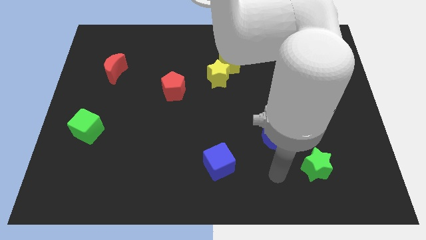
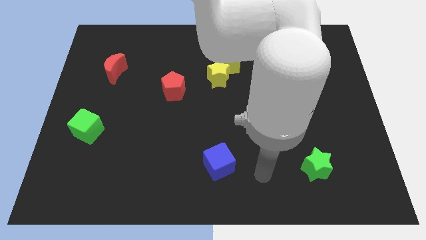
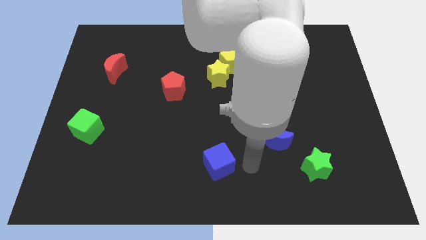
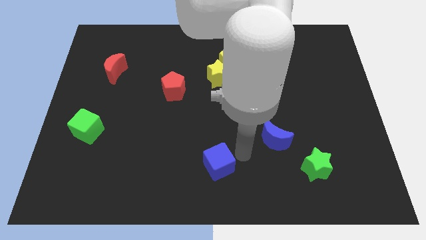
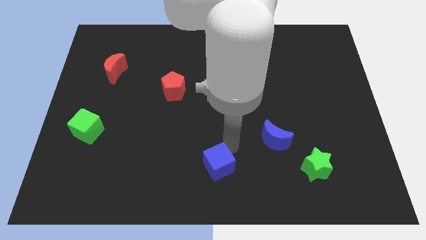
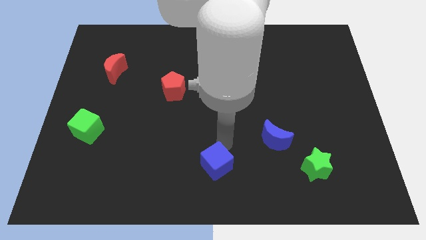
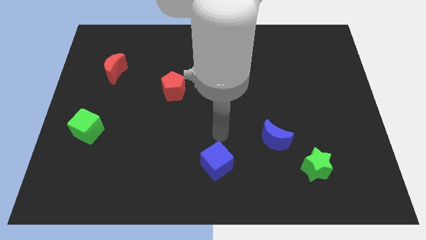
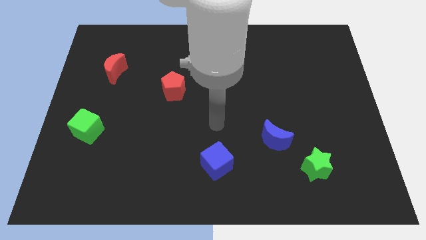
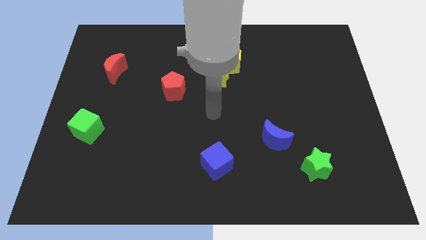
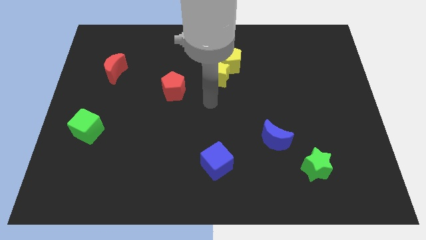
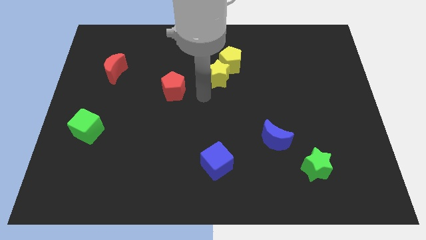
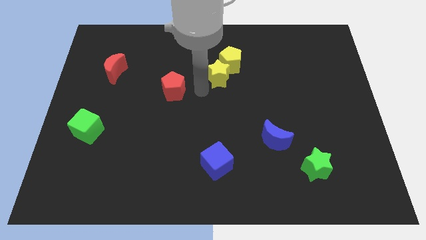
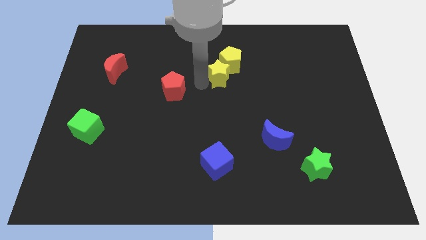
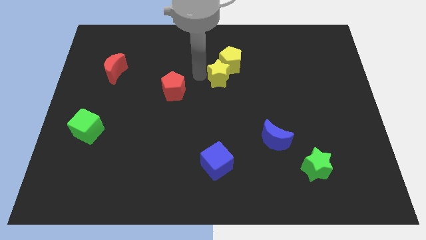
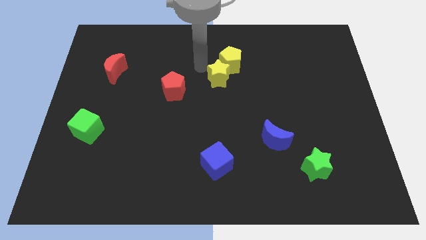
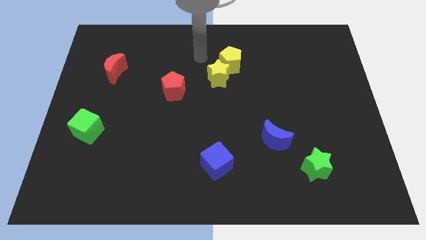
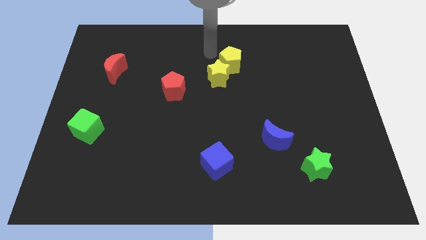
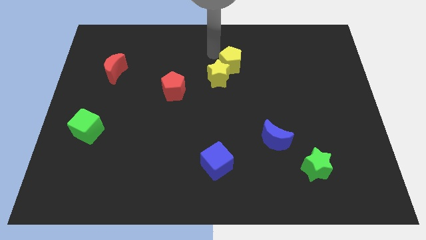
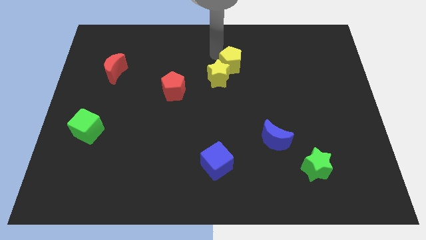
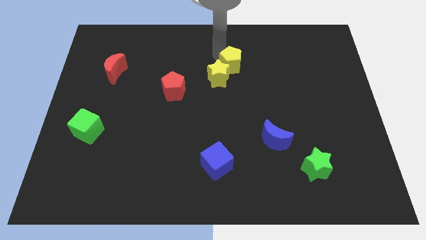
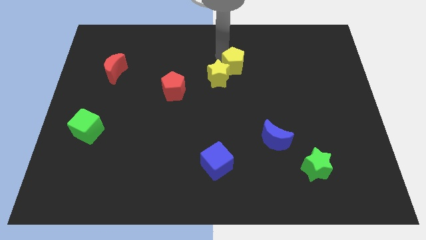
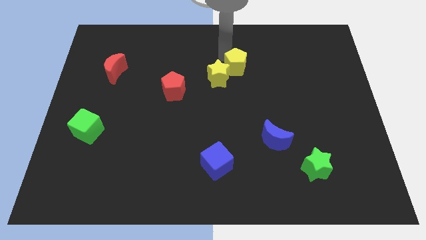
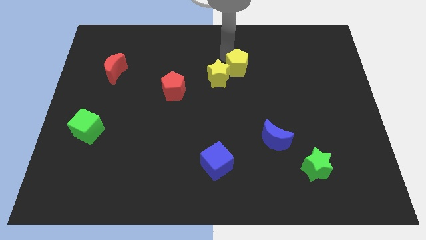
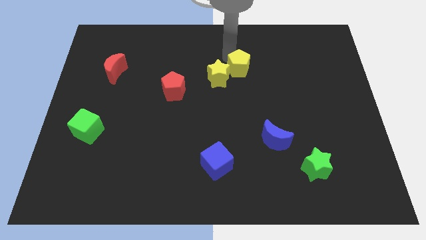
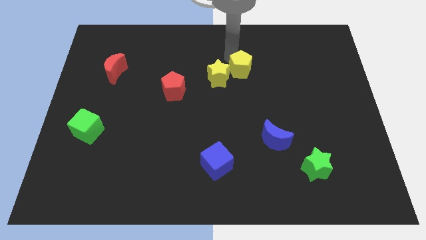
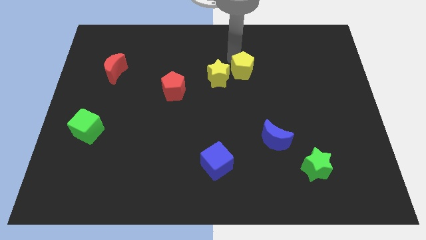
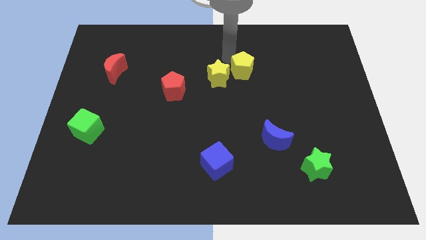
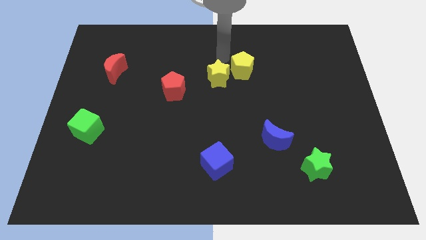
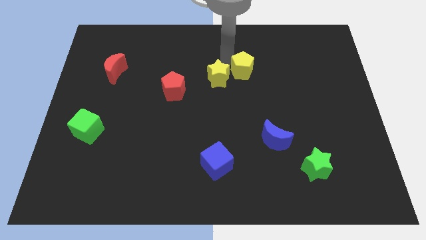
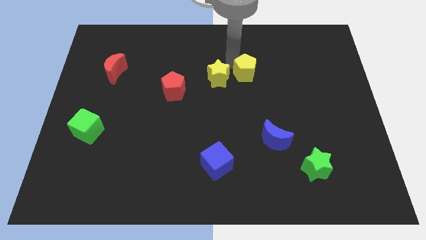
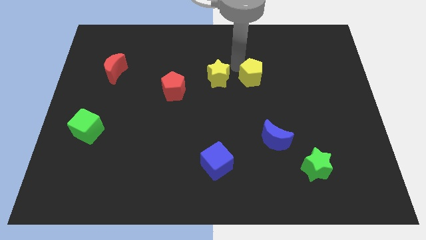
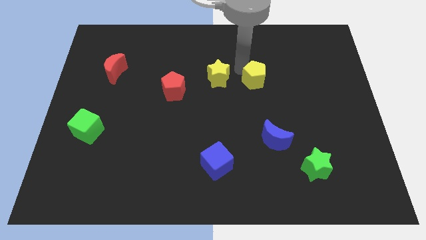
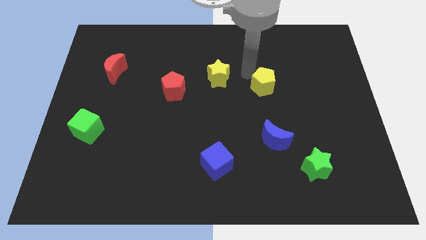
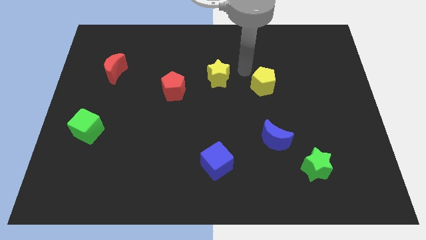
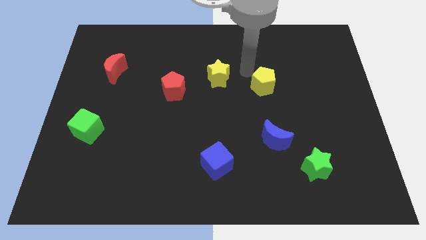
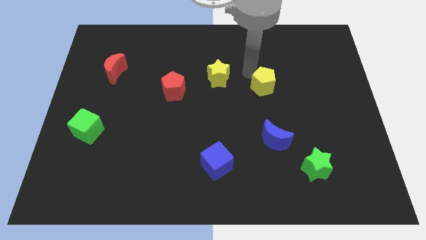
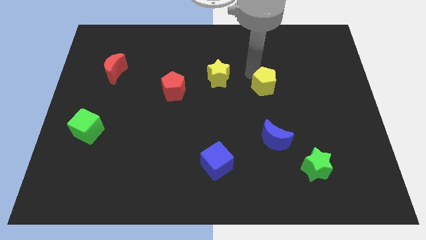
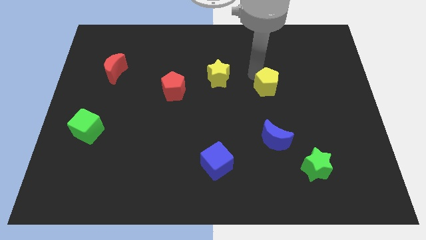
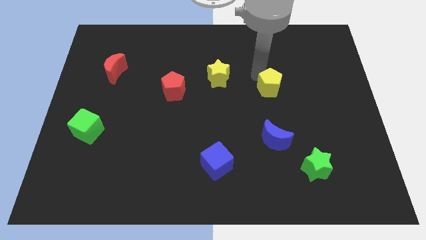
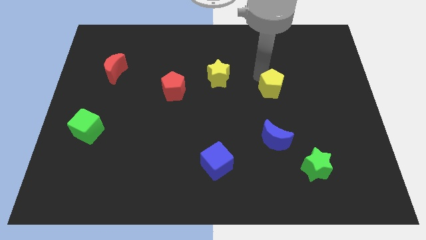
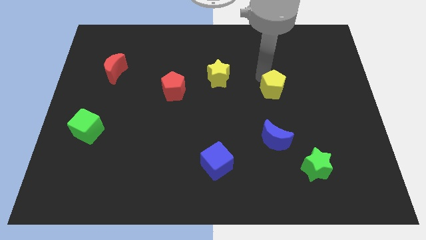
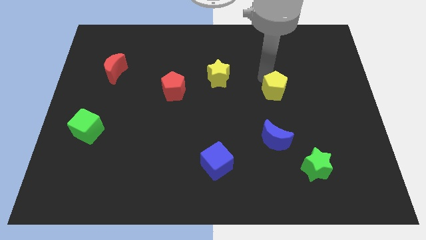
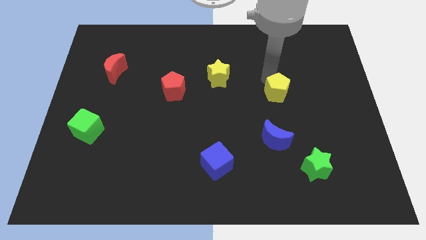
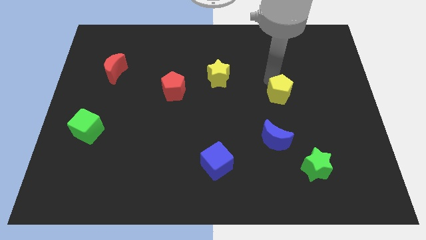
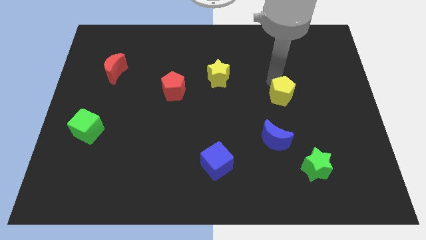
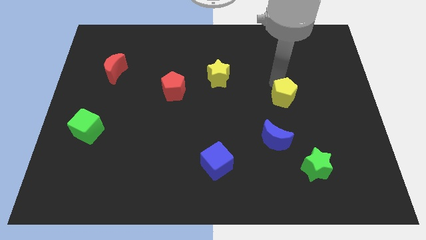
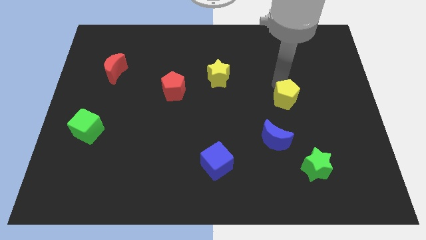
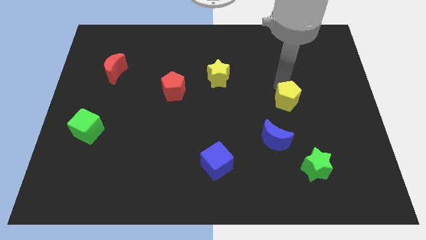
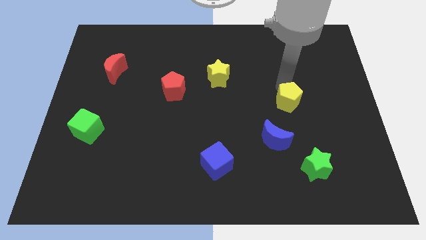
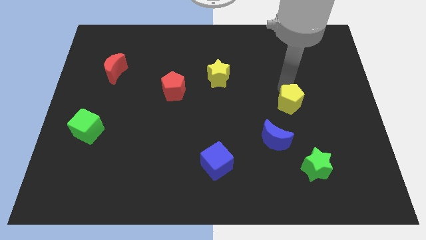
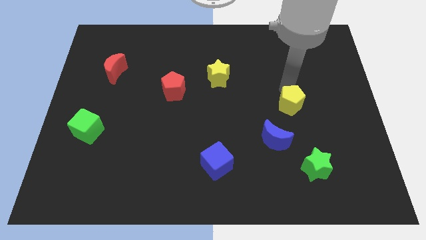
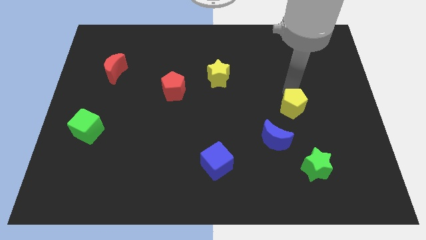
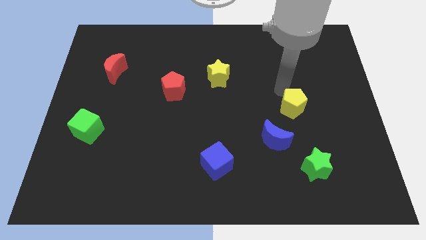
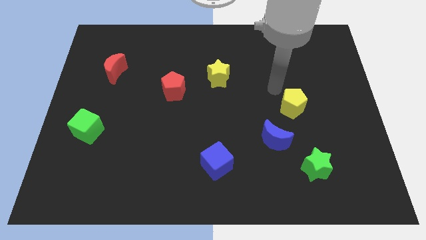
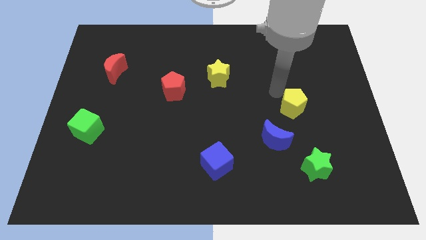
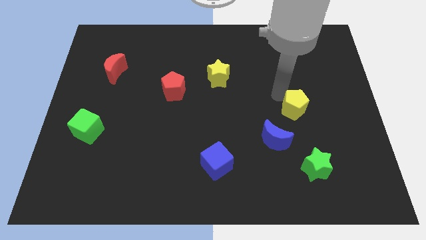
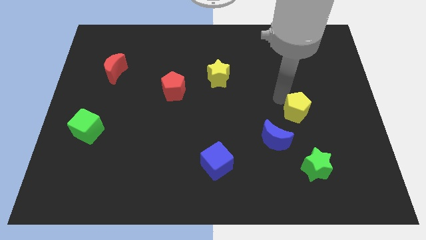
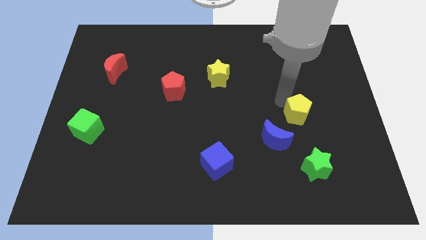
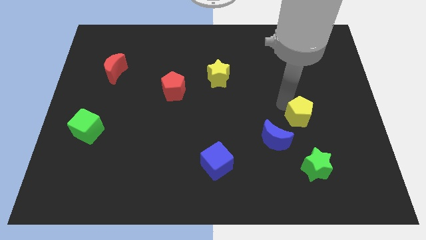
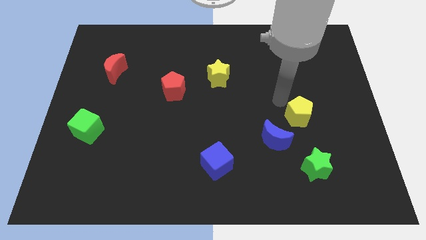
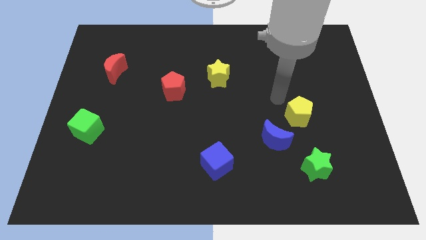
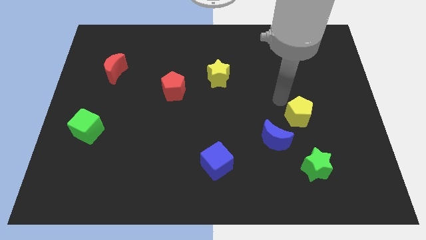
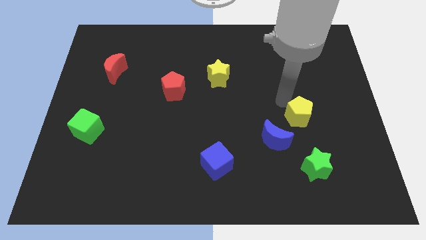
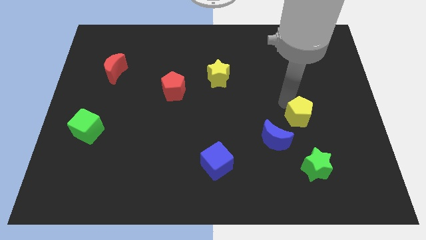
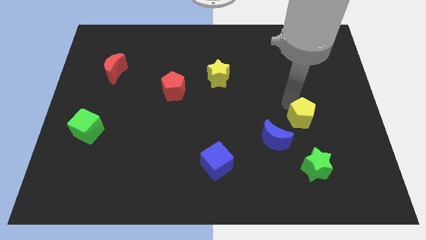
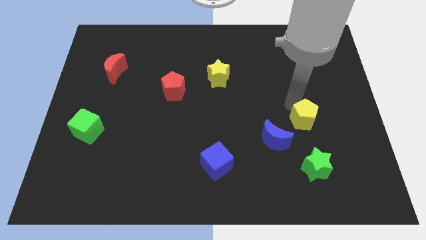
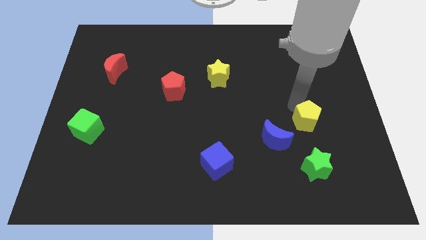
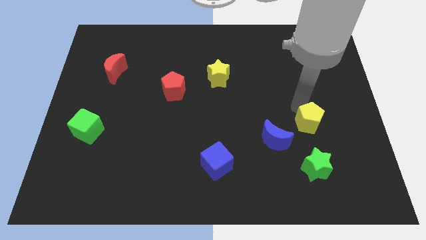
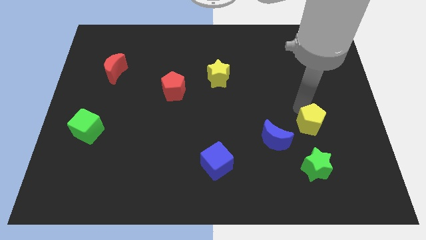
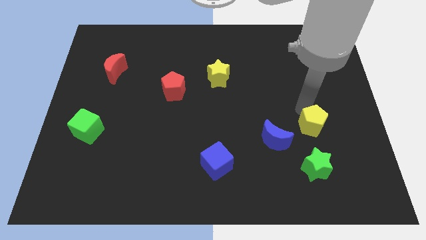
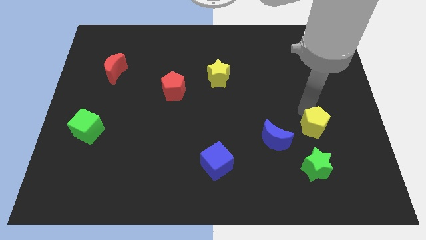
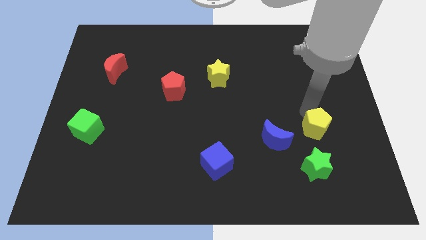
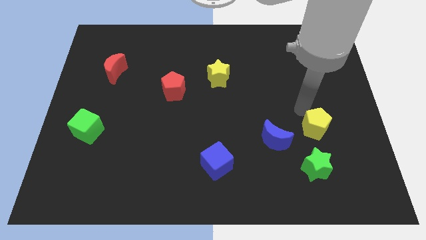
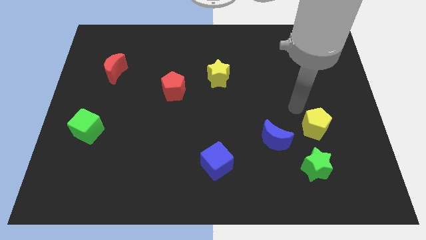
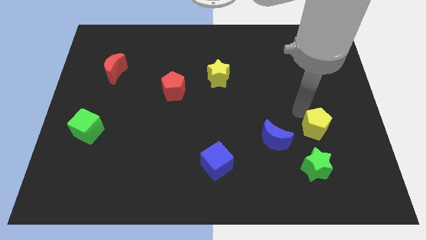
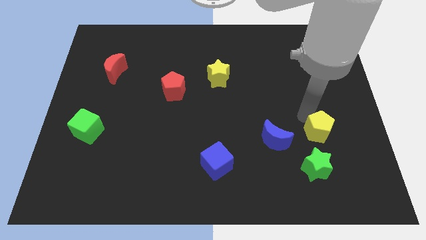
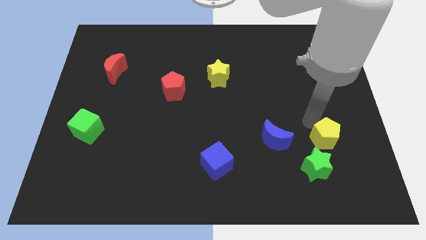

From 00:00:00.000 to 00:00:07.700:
push the yellow pentagon to the top right side of the green star
